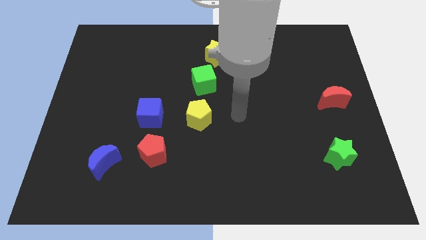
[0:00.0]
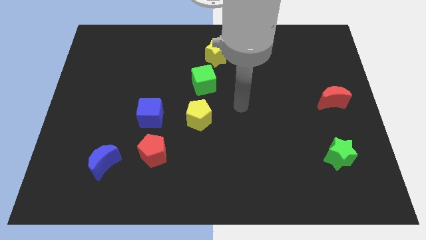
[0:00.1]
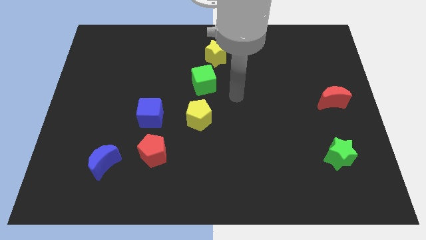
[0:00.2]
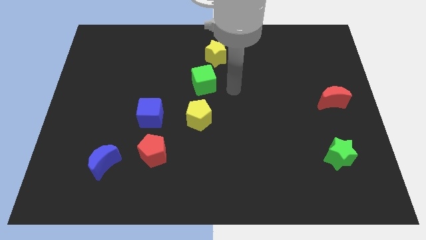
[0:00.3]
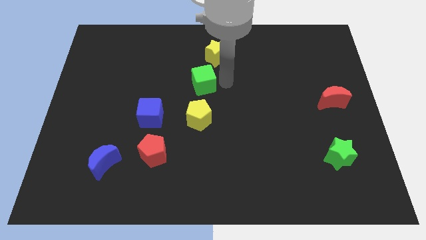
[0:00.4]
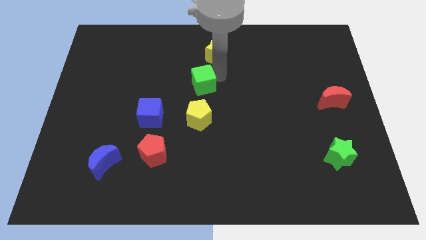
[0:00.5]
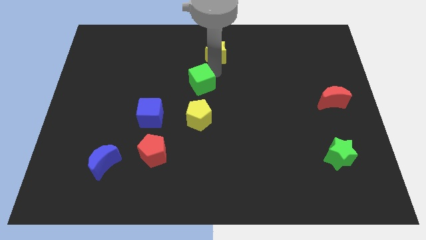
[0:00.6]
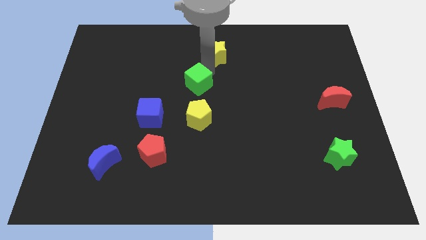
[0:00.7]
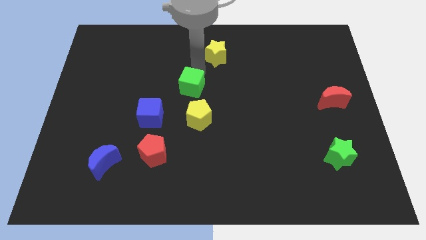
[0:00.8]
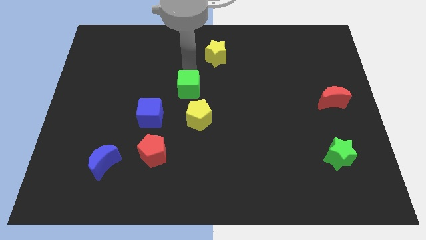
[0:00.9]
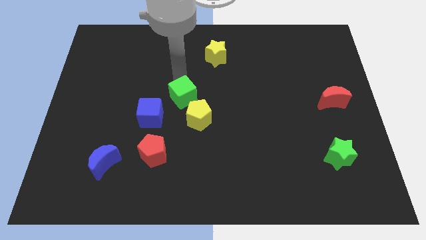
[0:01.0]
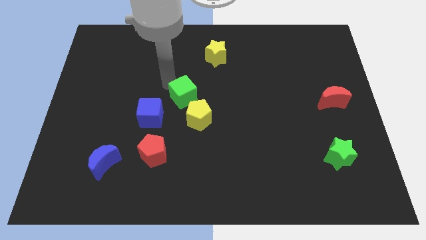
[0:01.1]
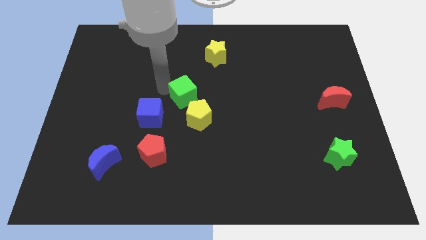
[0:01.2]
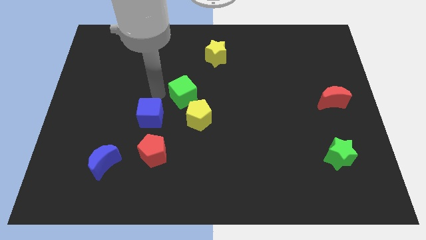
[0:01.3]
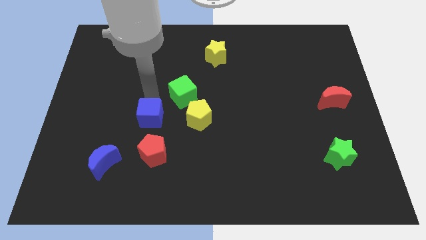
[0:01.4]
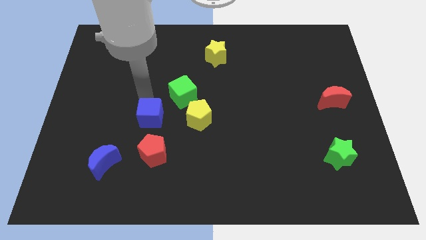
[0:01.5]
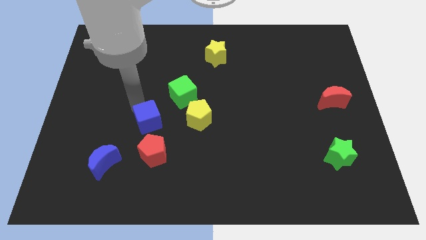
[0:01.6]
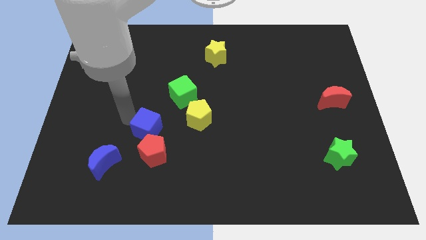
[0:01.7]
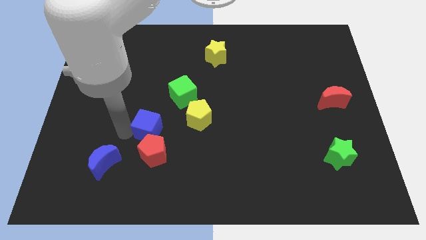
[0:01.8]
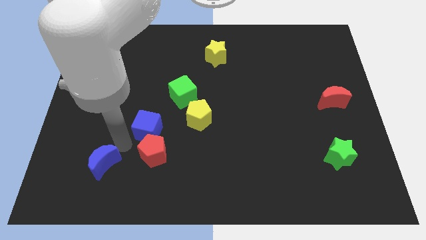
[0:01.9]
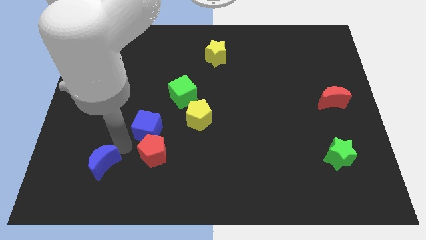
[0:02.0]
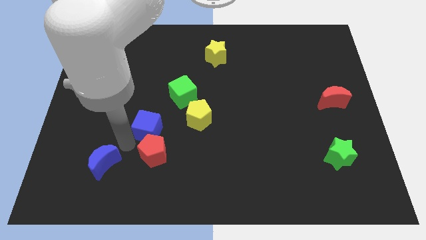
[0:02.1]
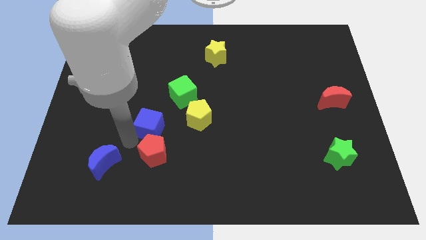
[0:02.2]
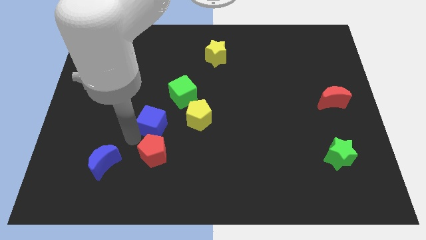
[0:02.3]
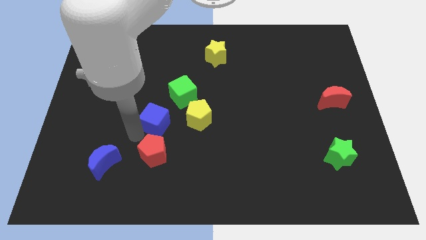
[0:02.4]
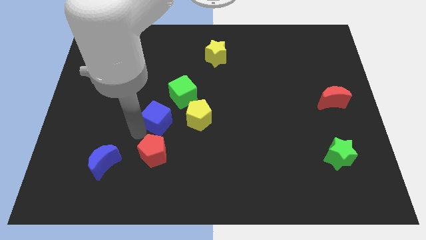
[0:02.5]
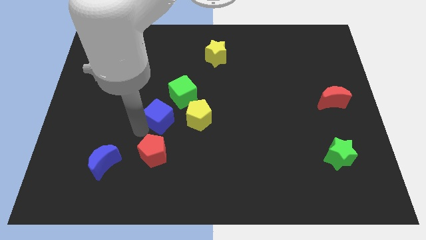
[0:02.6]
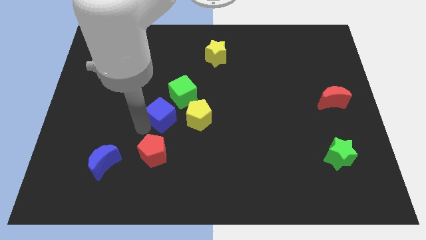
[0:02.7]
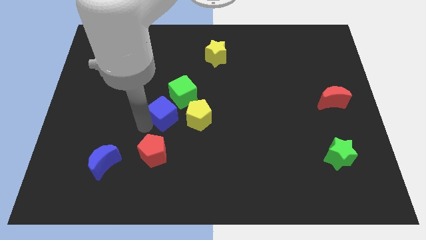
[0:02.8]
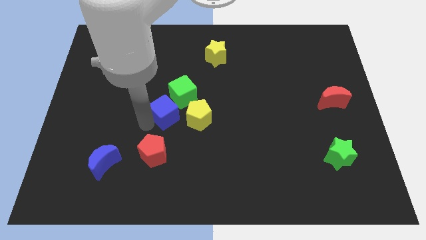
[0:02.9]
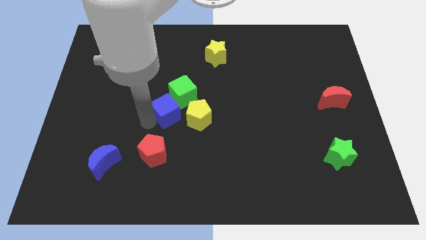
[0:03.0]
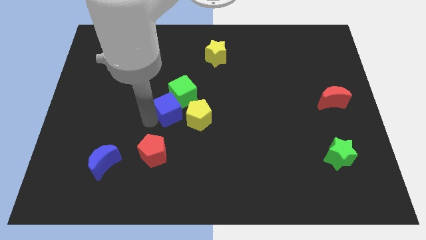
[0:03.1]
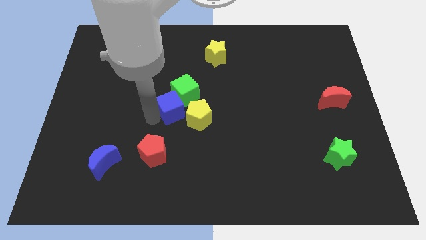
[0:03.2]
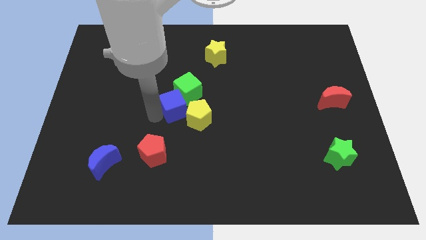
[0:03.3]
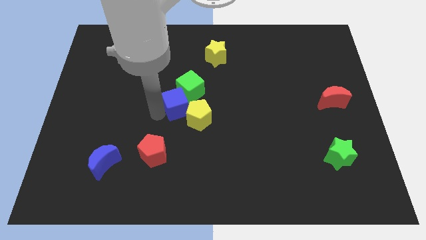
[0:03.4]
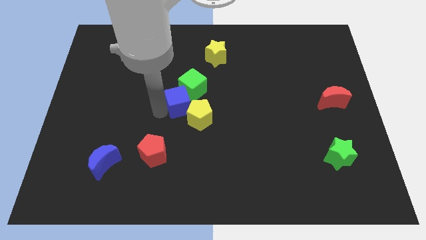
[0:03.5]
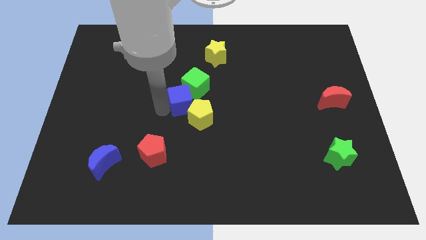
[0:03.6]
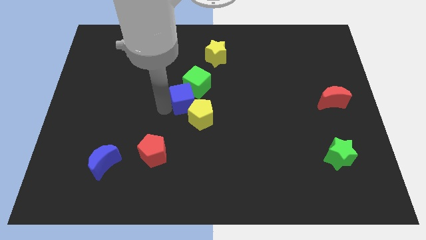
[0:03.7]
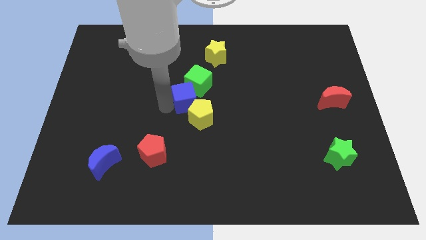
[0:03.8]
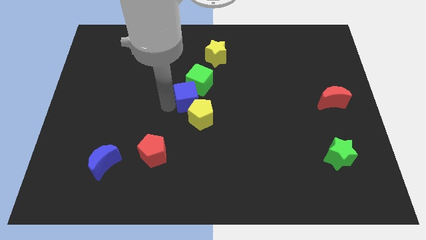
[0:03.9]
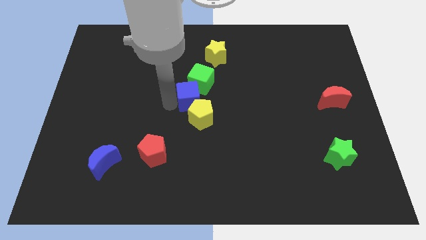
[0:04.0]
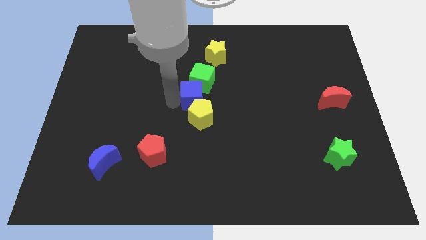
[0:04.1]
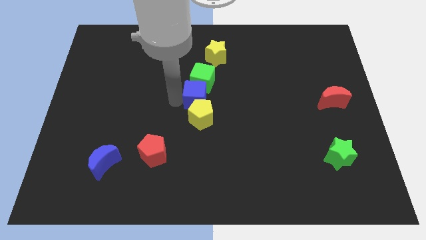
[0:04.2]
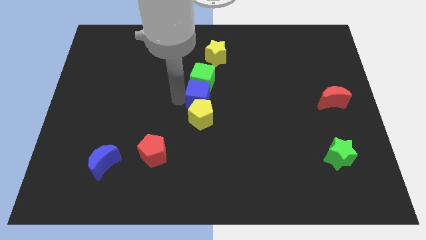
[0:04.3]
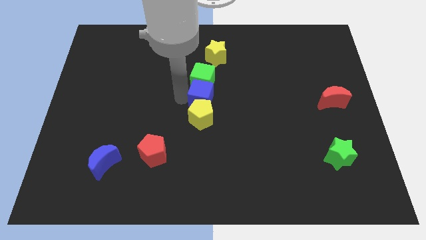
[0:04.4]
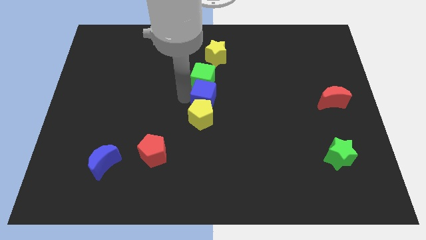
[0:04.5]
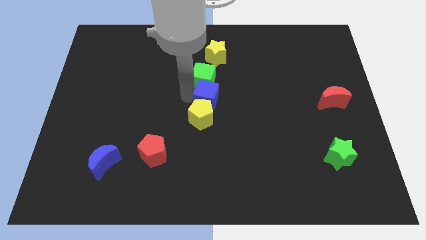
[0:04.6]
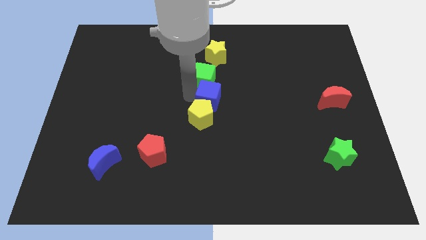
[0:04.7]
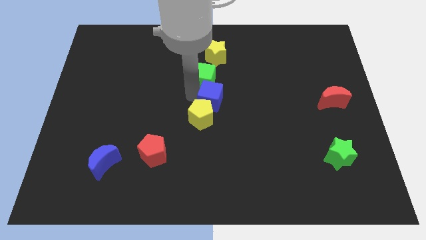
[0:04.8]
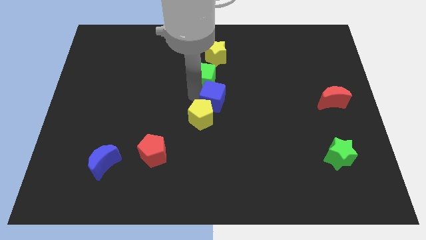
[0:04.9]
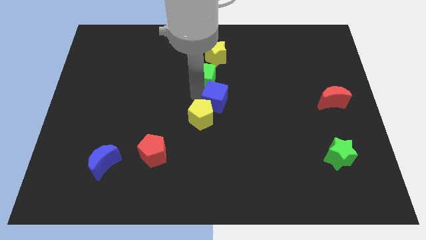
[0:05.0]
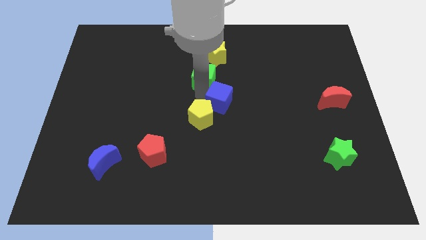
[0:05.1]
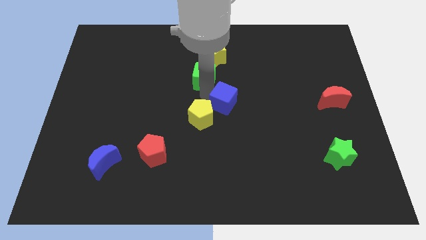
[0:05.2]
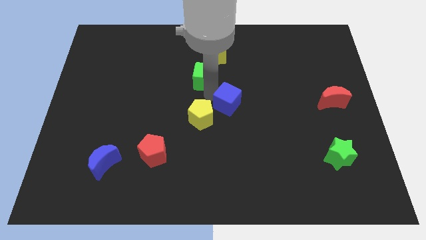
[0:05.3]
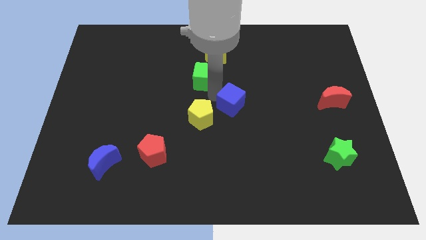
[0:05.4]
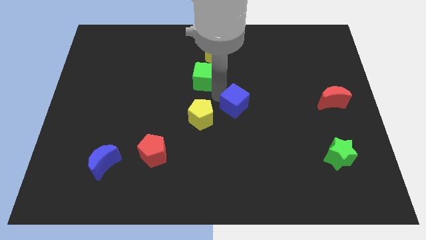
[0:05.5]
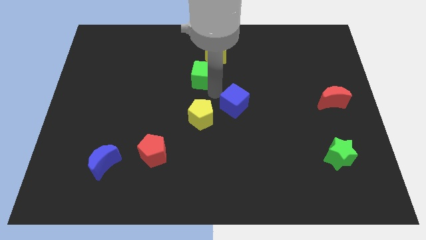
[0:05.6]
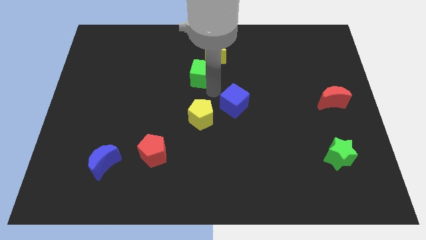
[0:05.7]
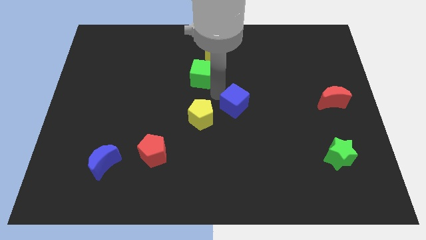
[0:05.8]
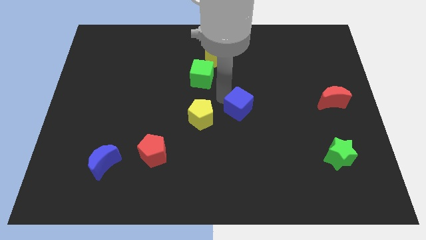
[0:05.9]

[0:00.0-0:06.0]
slide the blue cube right

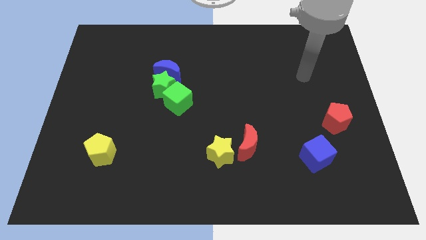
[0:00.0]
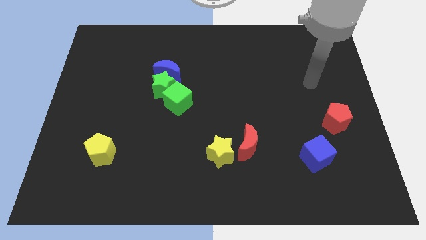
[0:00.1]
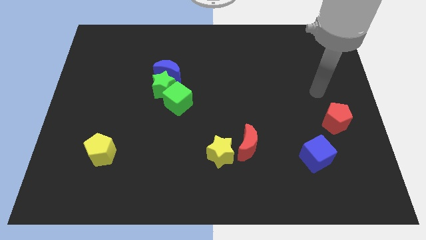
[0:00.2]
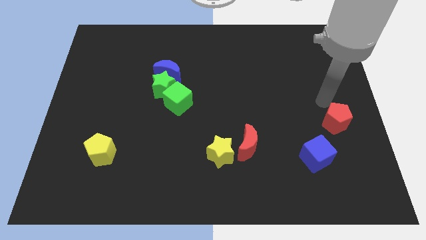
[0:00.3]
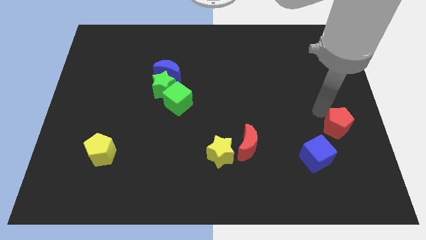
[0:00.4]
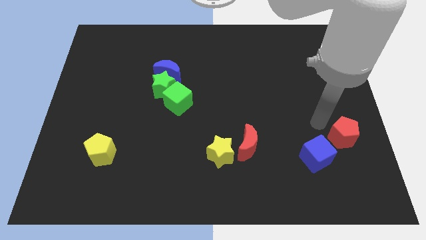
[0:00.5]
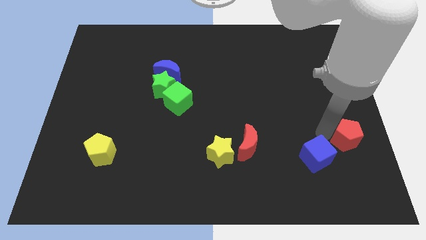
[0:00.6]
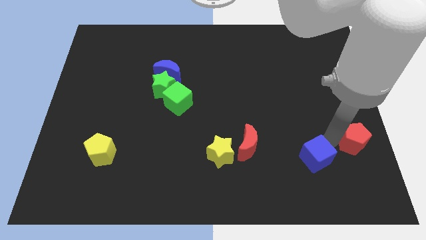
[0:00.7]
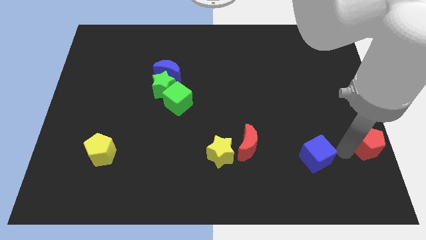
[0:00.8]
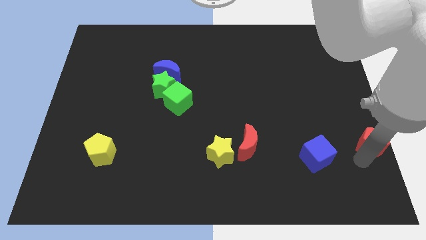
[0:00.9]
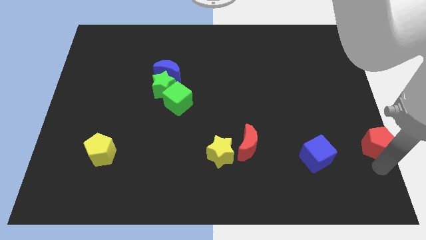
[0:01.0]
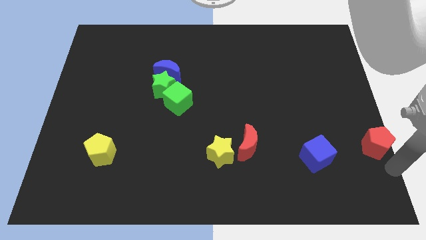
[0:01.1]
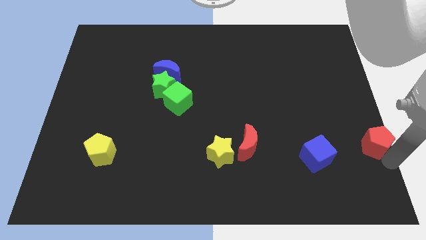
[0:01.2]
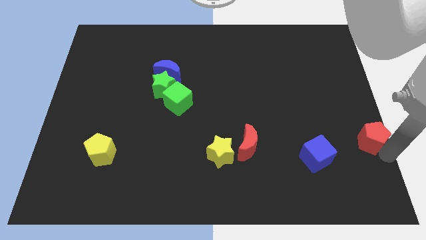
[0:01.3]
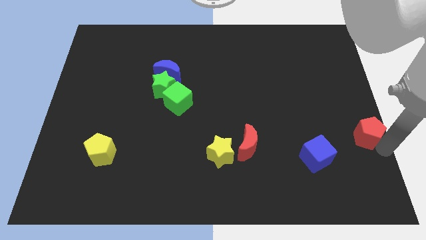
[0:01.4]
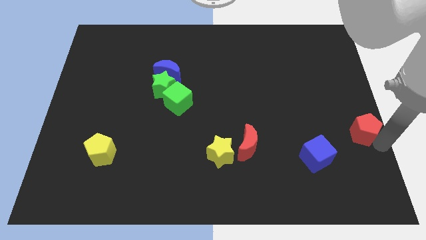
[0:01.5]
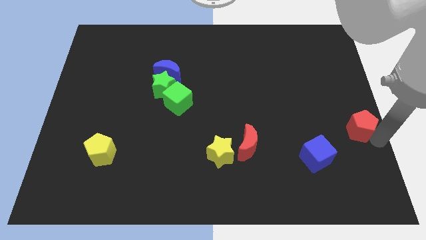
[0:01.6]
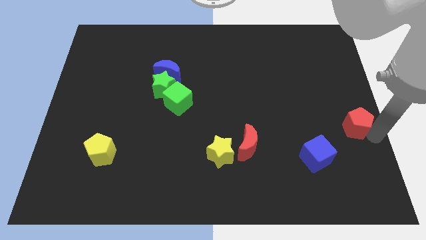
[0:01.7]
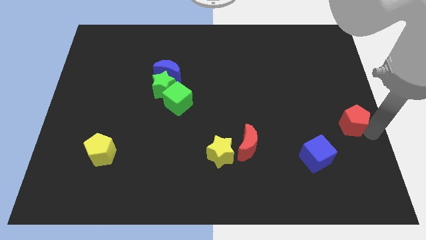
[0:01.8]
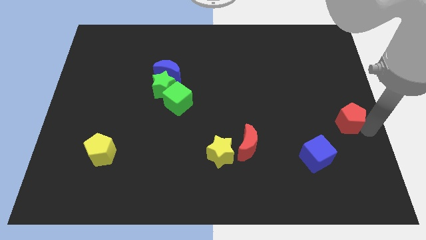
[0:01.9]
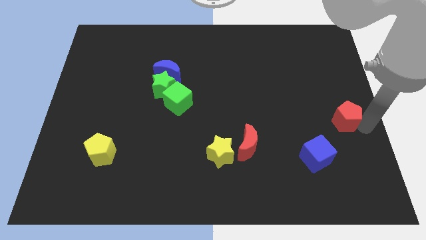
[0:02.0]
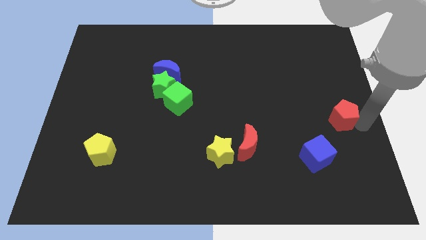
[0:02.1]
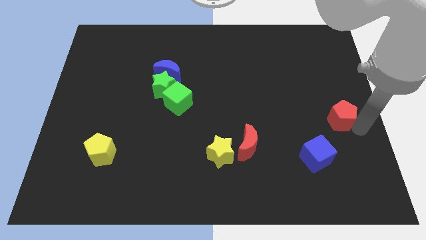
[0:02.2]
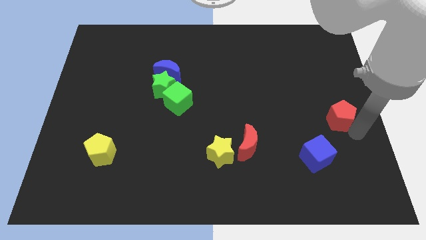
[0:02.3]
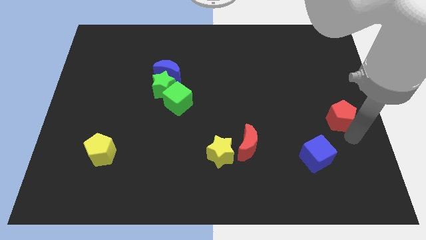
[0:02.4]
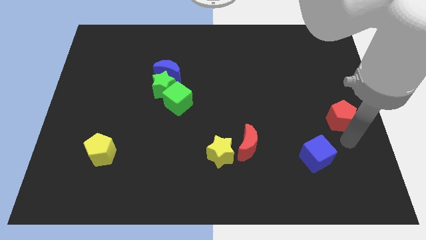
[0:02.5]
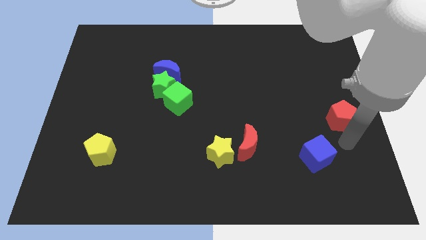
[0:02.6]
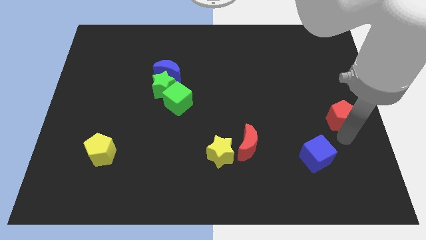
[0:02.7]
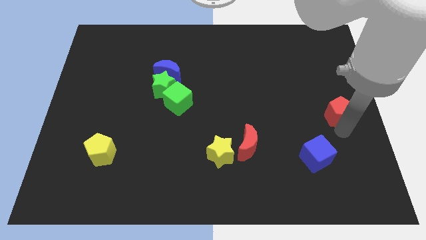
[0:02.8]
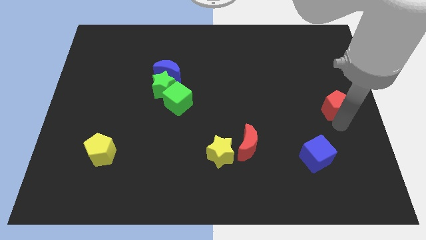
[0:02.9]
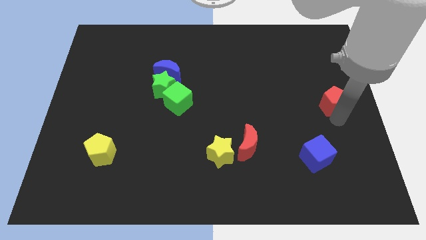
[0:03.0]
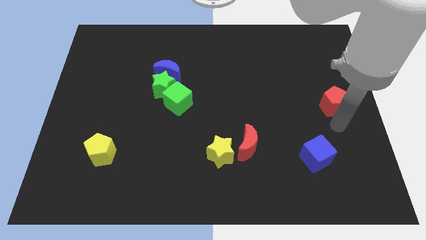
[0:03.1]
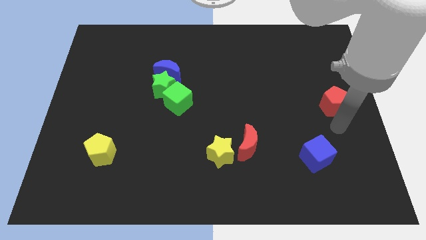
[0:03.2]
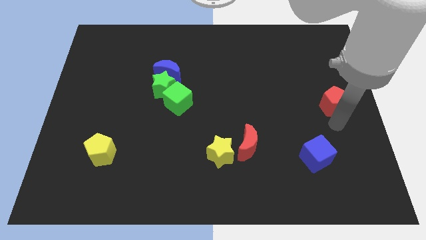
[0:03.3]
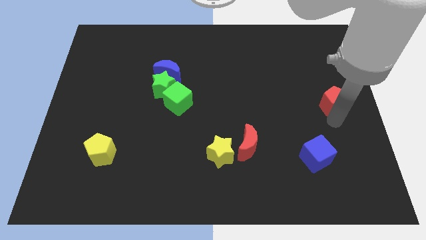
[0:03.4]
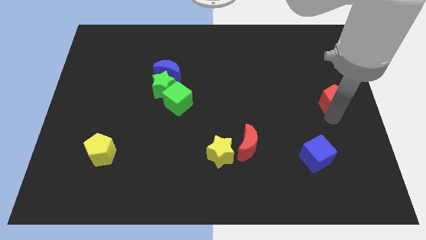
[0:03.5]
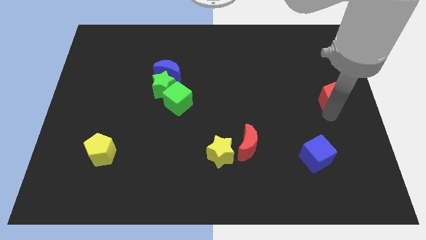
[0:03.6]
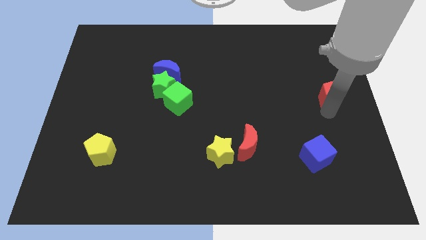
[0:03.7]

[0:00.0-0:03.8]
slightly move the red pentagon up
